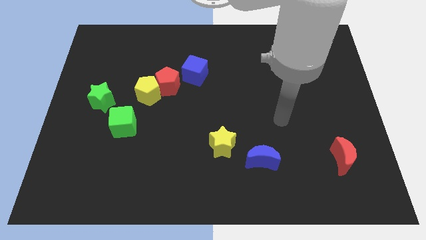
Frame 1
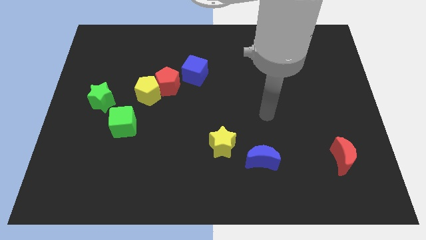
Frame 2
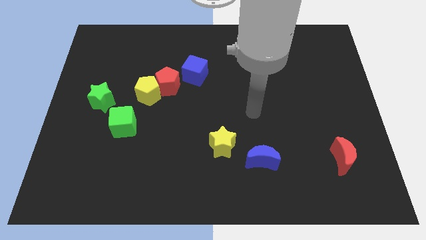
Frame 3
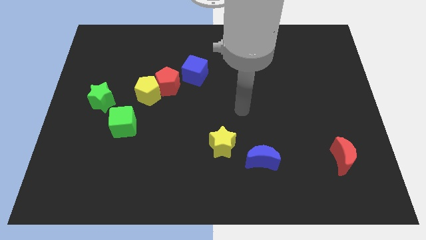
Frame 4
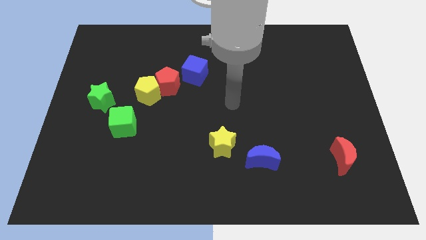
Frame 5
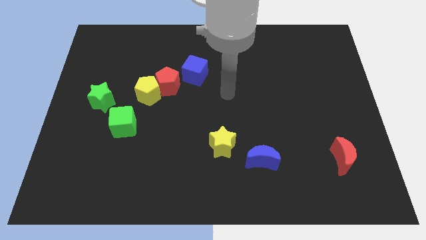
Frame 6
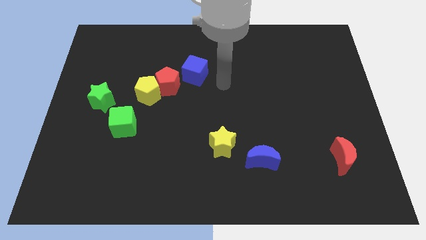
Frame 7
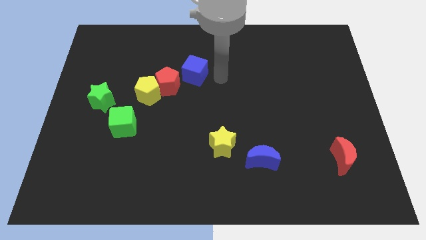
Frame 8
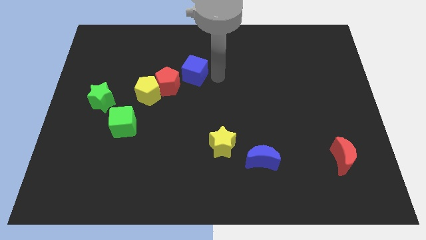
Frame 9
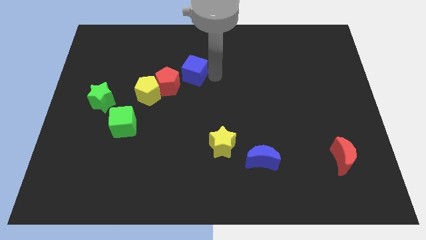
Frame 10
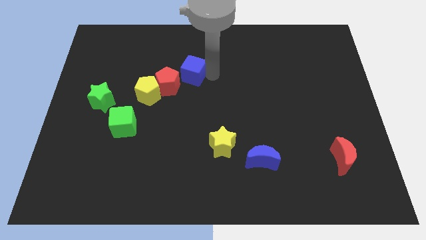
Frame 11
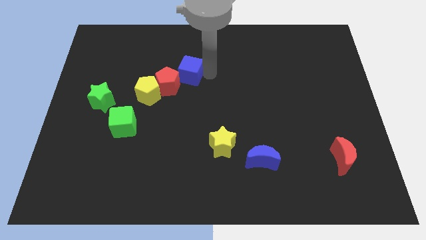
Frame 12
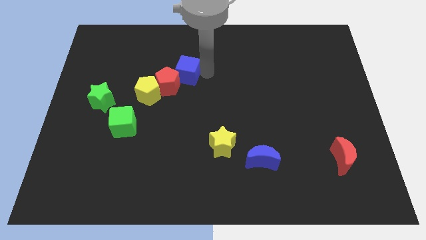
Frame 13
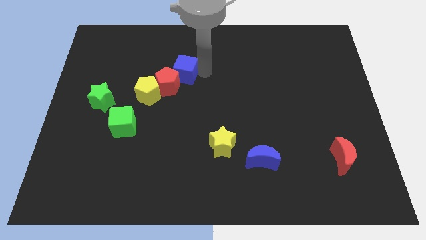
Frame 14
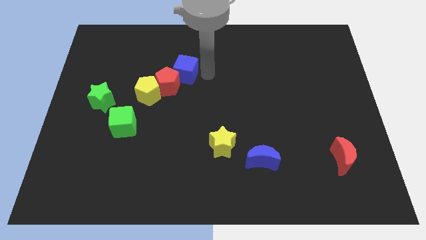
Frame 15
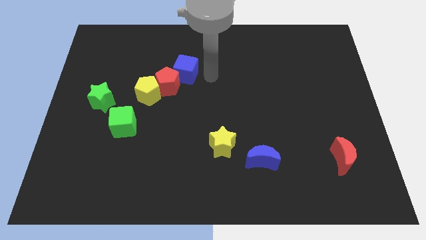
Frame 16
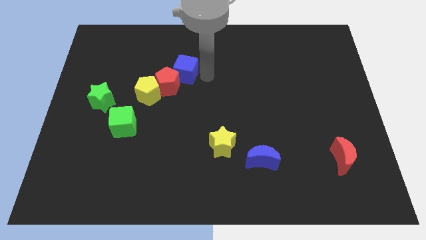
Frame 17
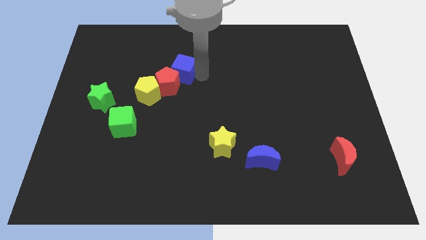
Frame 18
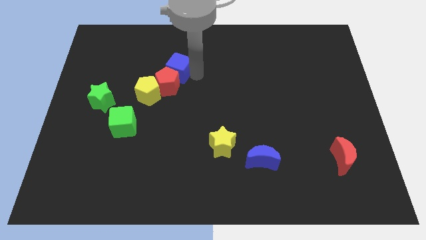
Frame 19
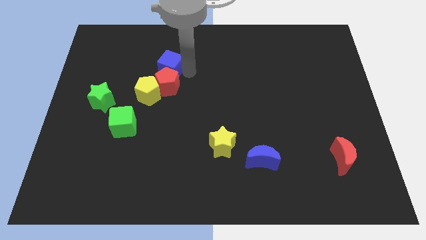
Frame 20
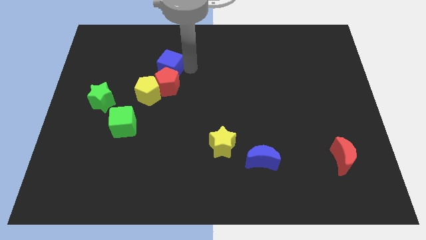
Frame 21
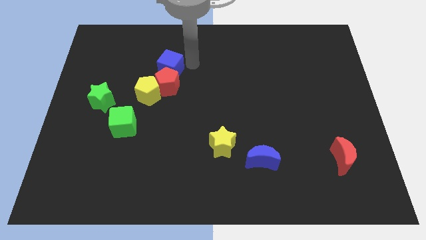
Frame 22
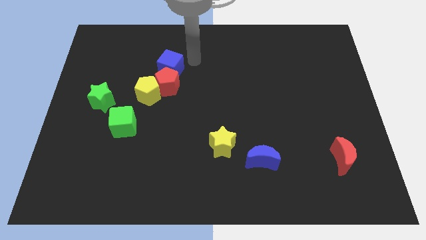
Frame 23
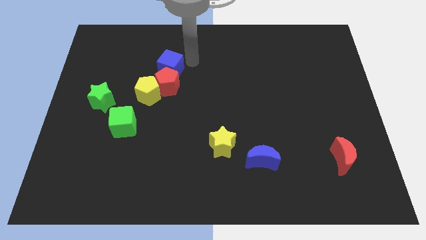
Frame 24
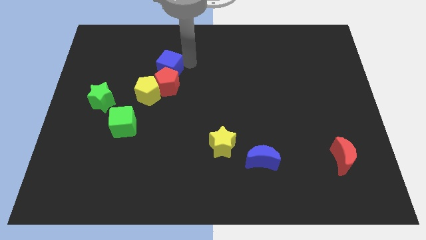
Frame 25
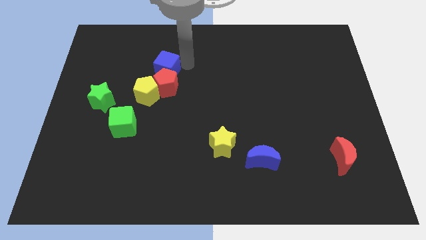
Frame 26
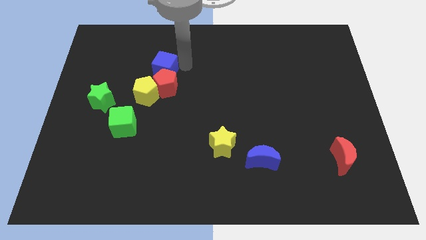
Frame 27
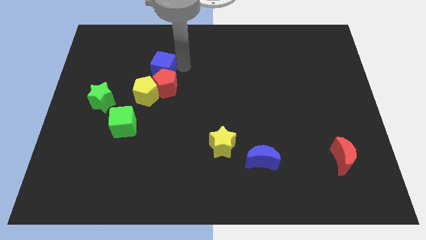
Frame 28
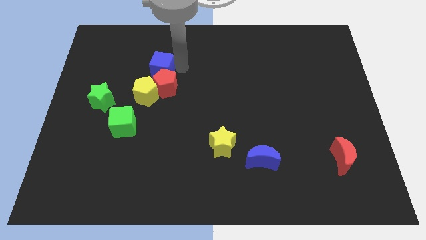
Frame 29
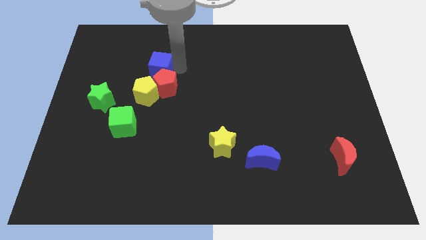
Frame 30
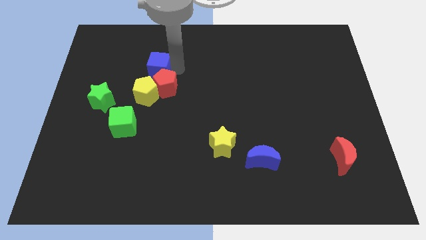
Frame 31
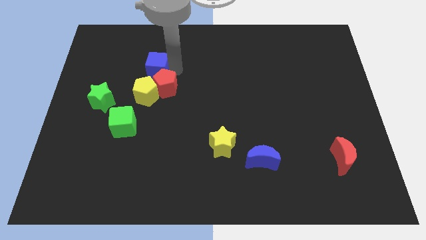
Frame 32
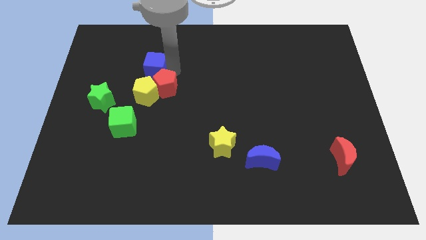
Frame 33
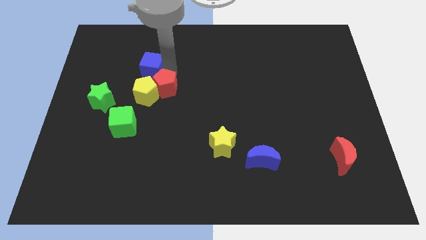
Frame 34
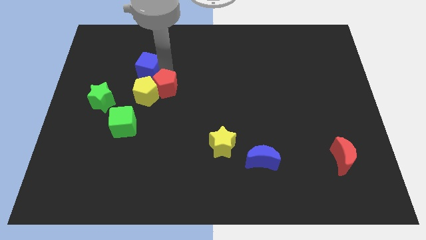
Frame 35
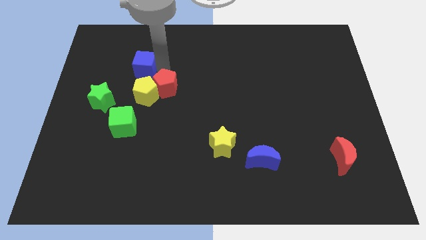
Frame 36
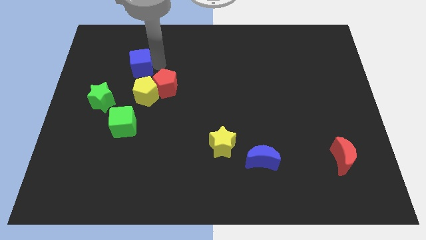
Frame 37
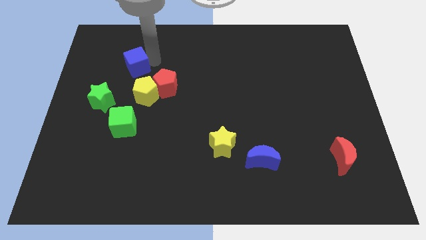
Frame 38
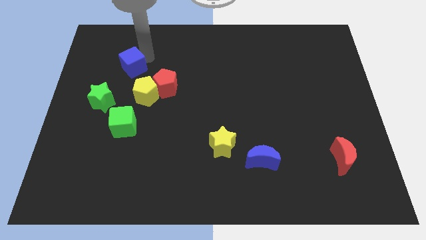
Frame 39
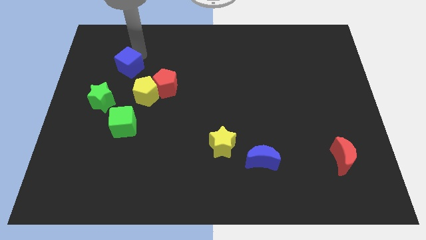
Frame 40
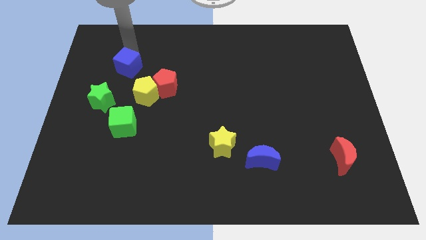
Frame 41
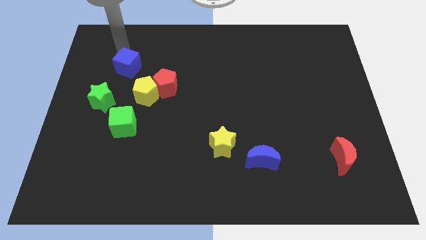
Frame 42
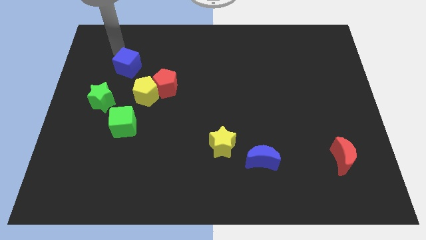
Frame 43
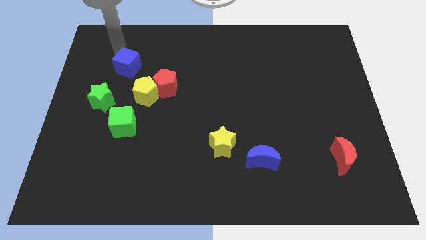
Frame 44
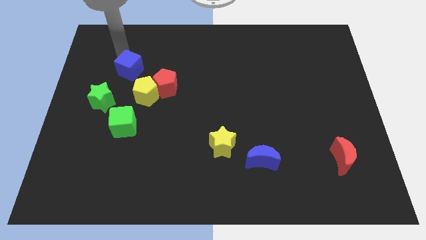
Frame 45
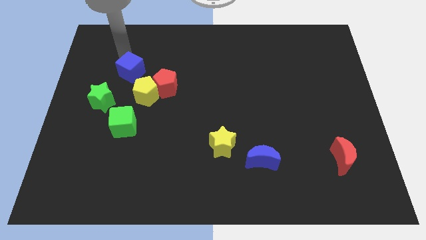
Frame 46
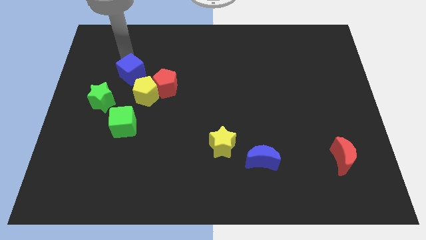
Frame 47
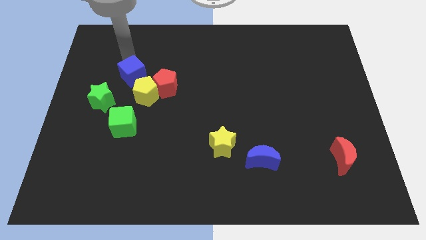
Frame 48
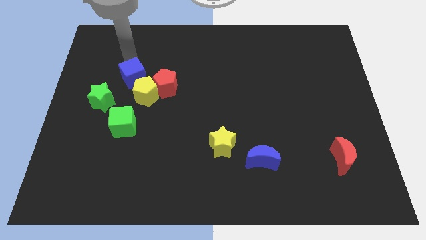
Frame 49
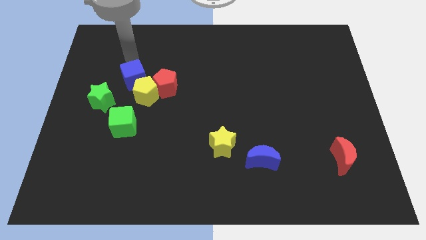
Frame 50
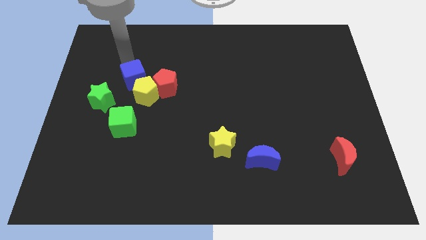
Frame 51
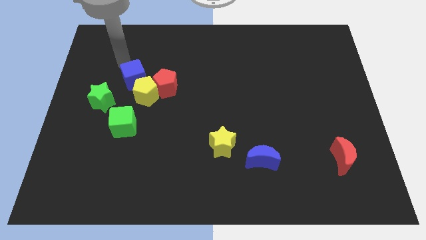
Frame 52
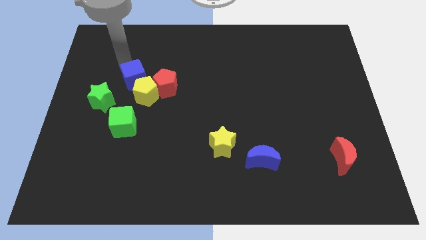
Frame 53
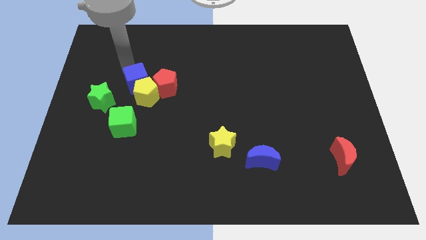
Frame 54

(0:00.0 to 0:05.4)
move the blue cube close to the yellow pentagon

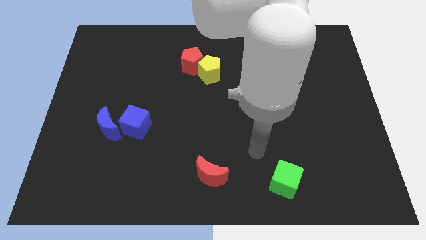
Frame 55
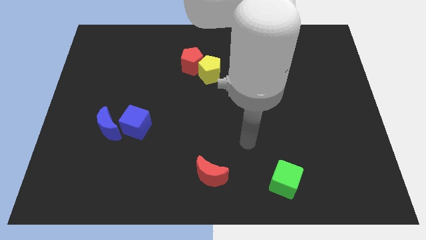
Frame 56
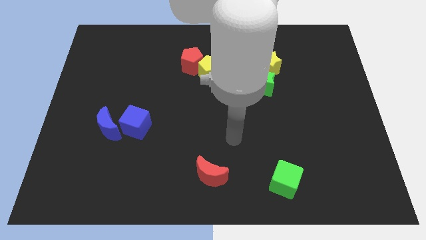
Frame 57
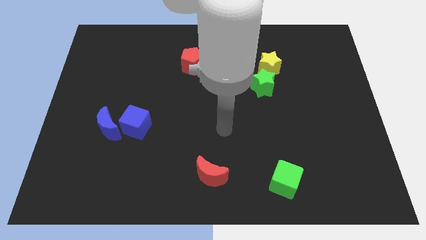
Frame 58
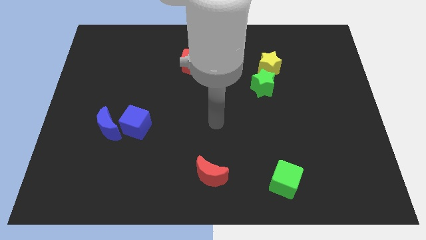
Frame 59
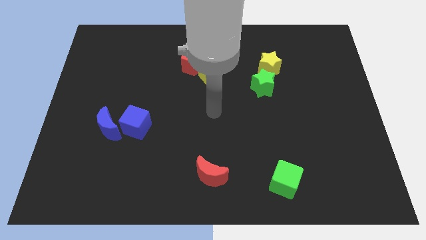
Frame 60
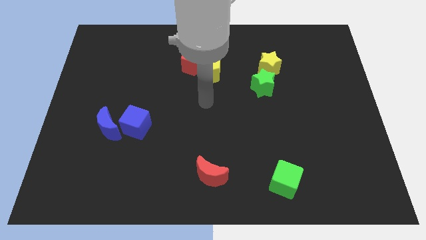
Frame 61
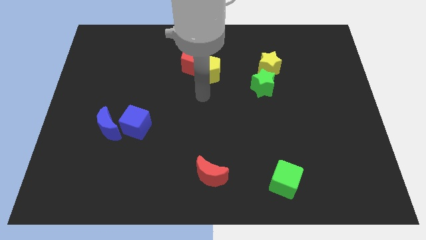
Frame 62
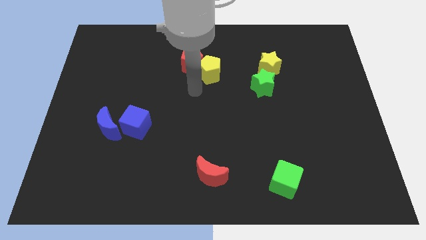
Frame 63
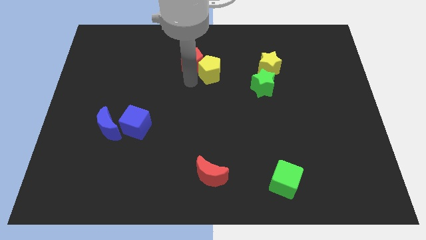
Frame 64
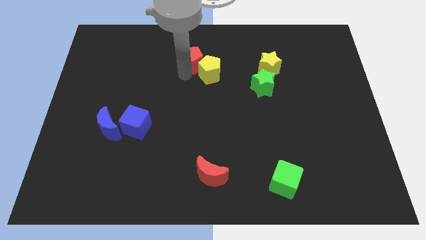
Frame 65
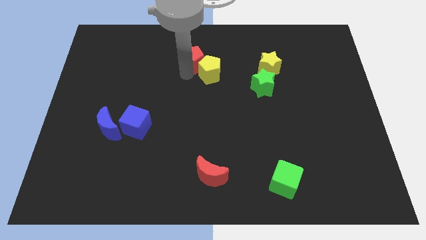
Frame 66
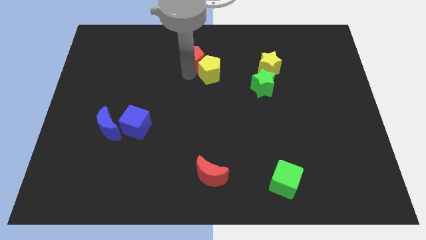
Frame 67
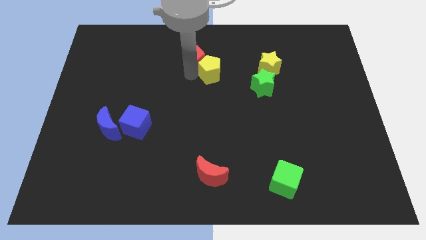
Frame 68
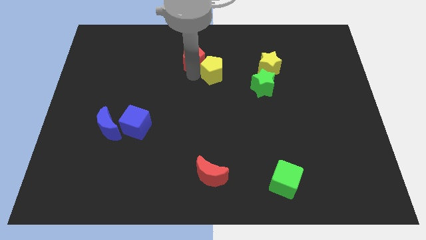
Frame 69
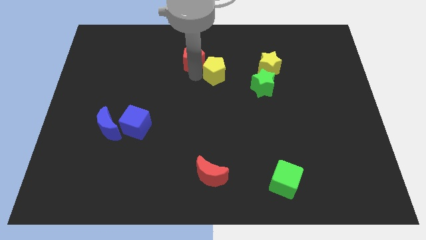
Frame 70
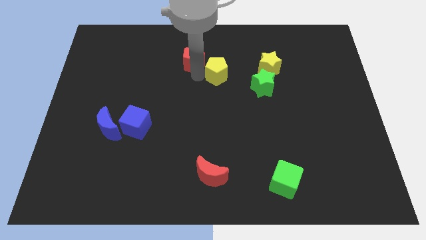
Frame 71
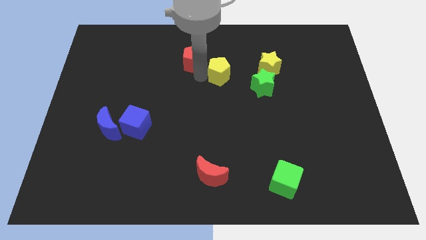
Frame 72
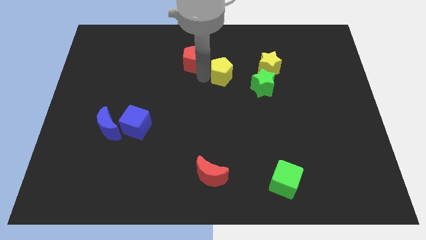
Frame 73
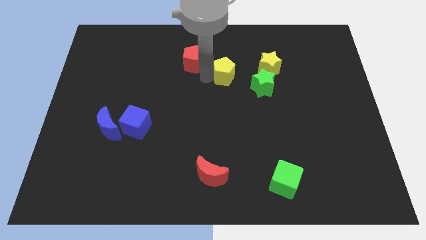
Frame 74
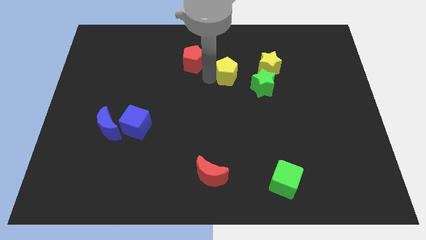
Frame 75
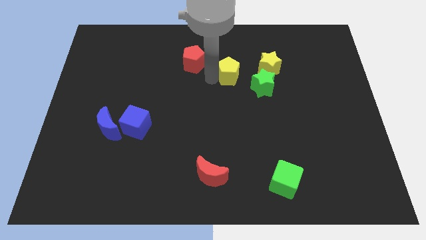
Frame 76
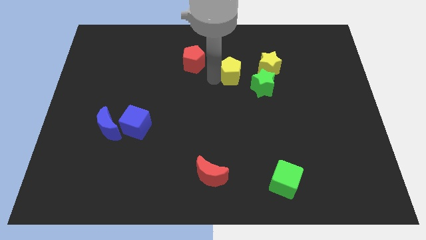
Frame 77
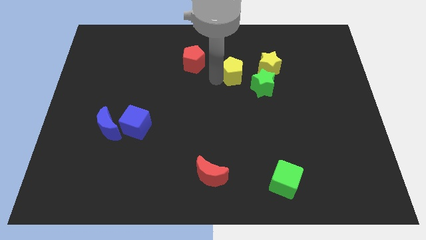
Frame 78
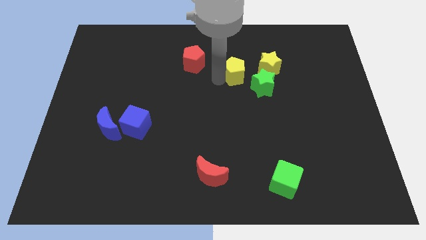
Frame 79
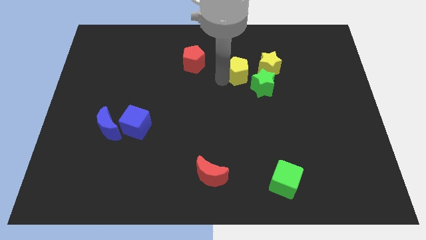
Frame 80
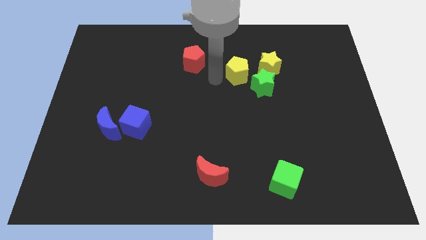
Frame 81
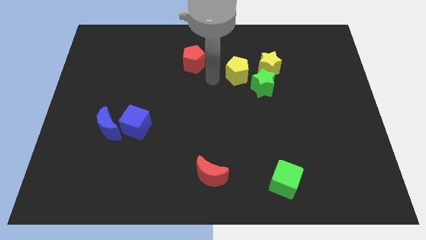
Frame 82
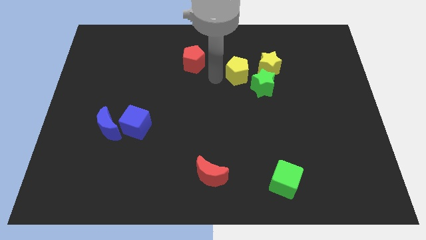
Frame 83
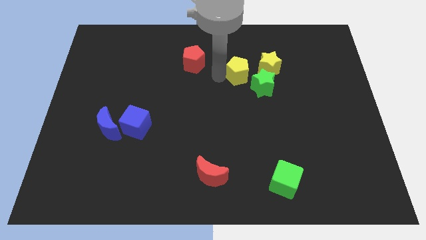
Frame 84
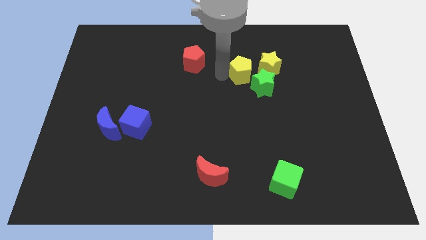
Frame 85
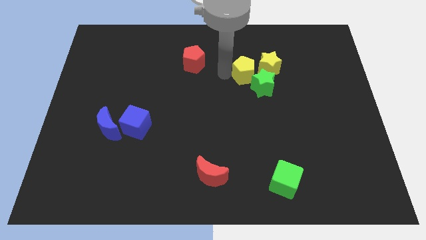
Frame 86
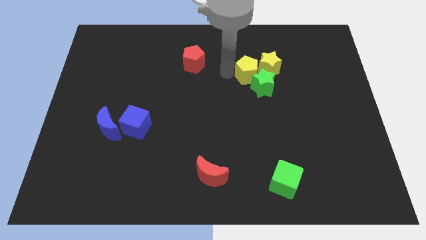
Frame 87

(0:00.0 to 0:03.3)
move the yellow pentagon close to the yellow star

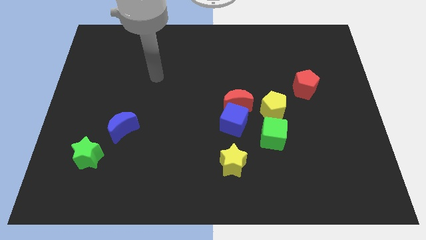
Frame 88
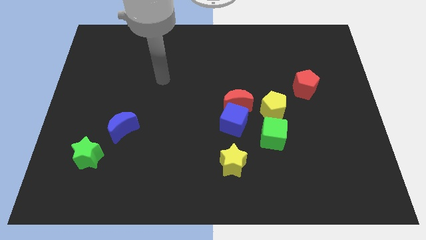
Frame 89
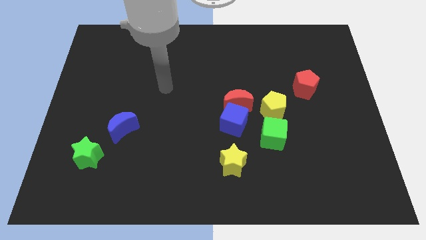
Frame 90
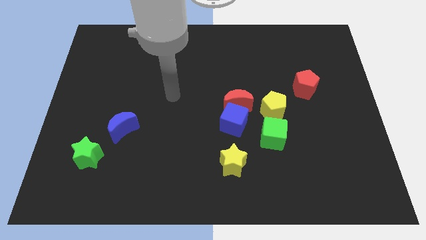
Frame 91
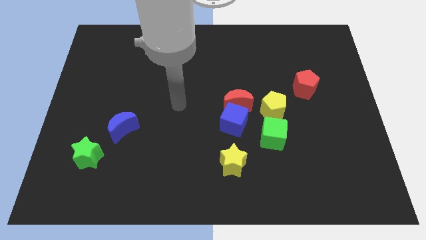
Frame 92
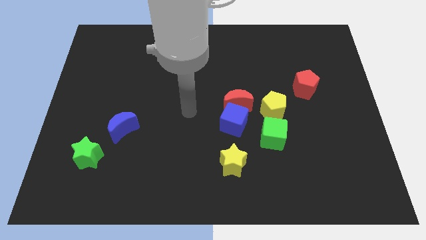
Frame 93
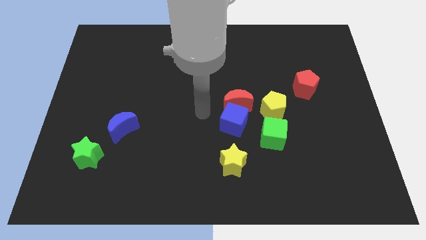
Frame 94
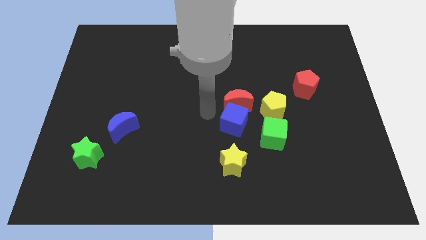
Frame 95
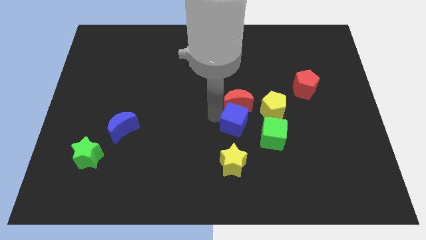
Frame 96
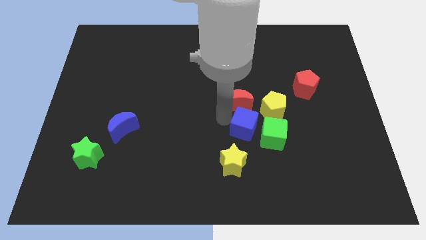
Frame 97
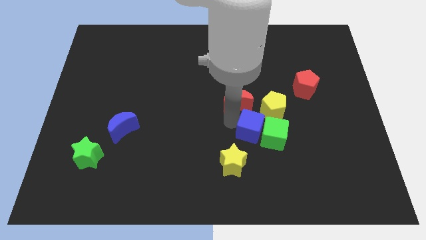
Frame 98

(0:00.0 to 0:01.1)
move the blue cube next to the green cube
